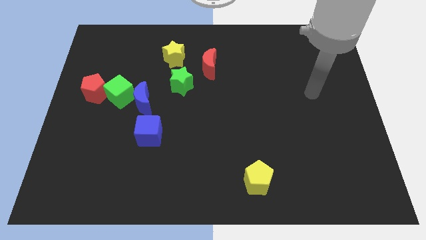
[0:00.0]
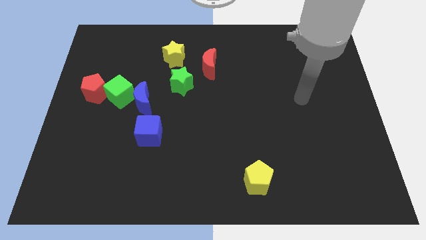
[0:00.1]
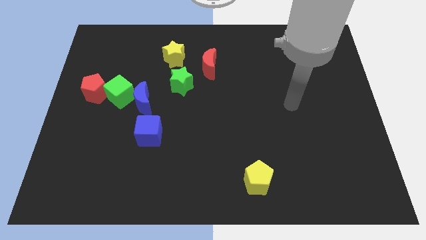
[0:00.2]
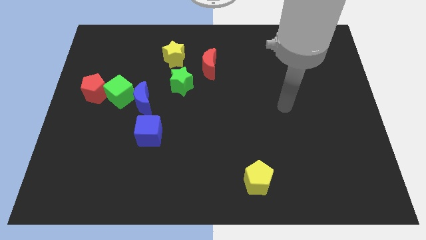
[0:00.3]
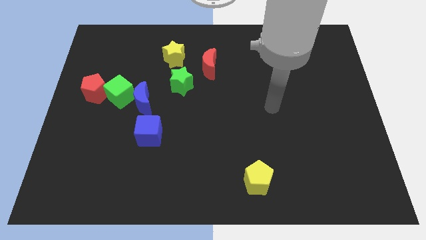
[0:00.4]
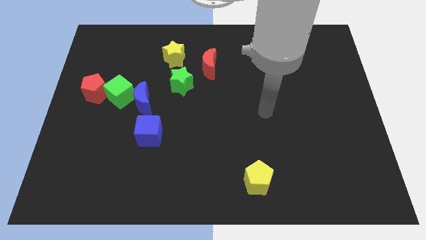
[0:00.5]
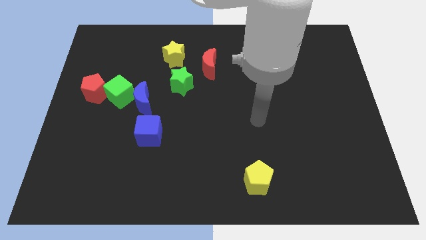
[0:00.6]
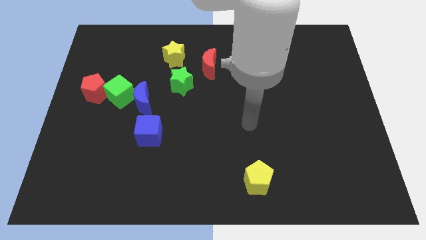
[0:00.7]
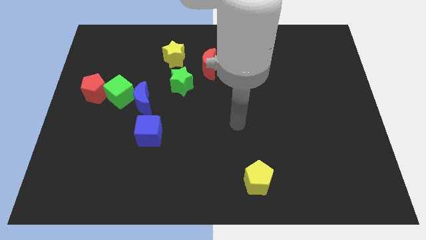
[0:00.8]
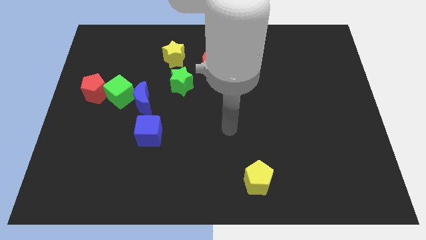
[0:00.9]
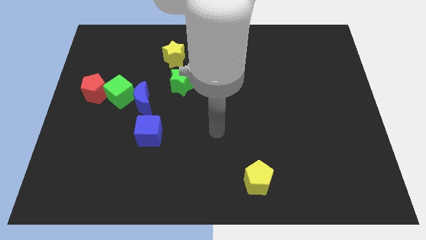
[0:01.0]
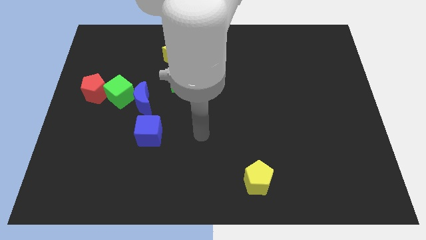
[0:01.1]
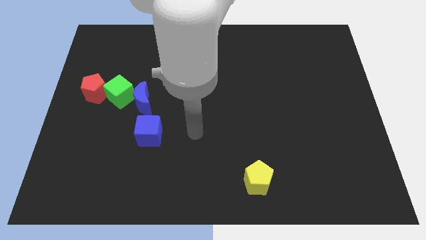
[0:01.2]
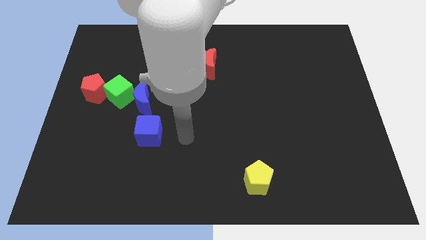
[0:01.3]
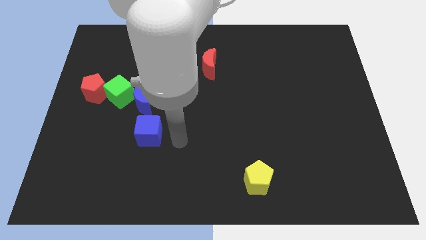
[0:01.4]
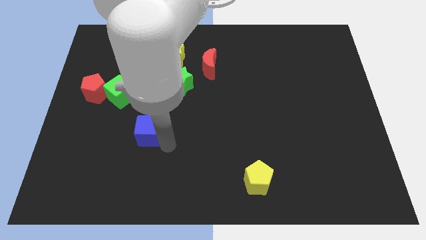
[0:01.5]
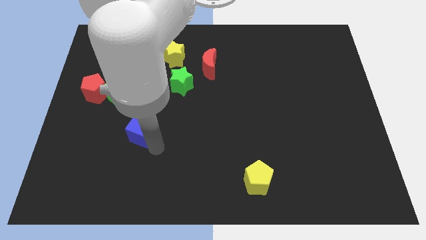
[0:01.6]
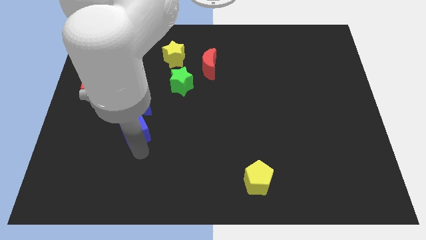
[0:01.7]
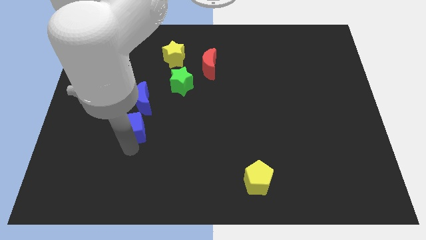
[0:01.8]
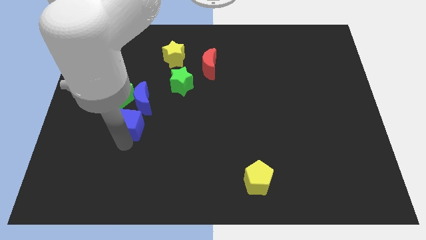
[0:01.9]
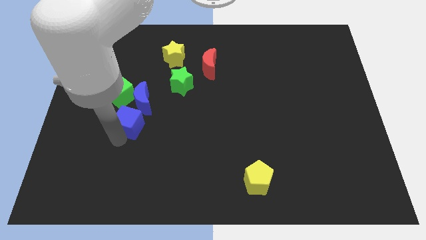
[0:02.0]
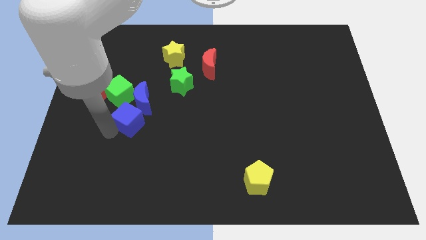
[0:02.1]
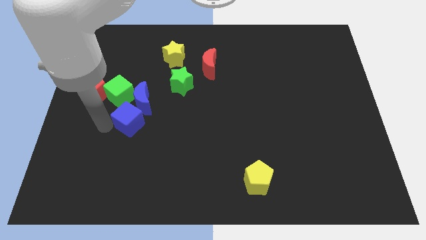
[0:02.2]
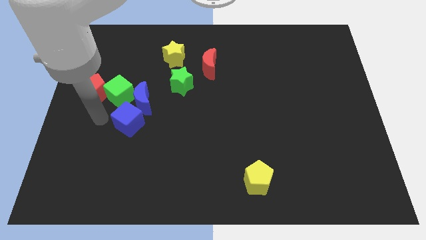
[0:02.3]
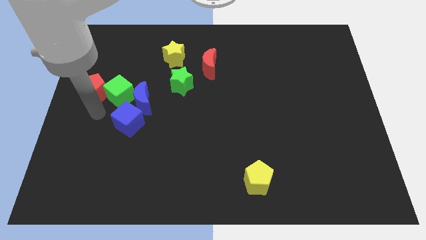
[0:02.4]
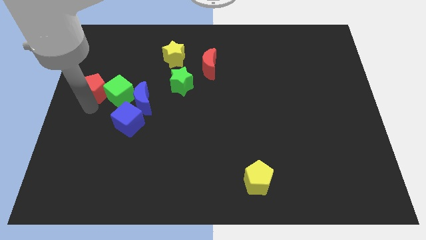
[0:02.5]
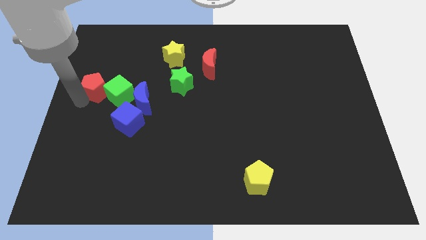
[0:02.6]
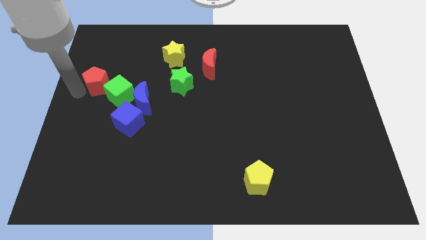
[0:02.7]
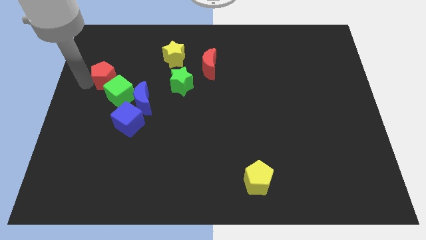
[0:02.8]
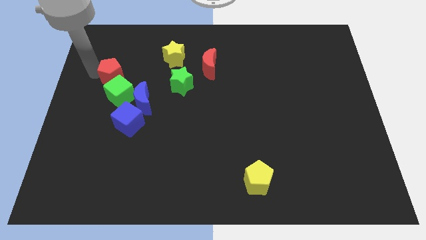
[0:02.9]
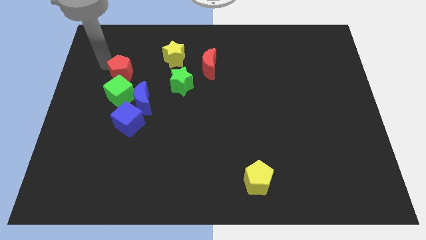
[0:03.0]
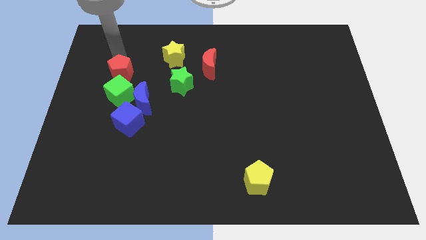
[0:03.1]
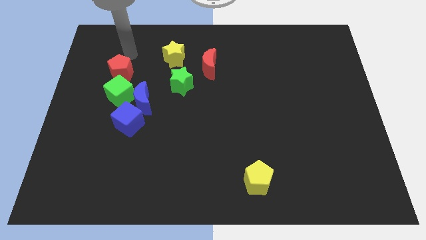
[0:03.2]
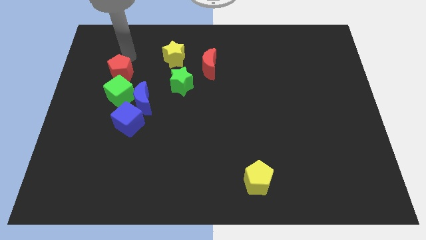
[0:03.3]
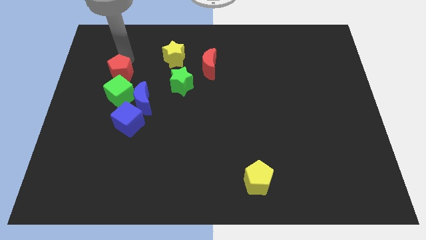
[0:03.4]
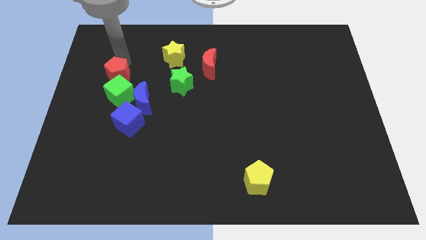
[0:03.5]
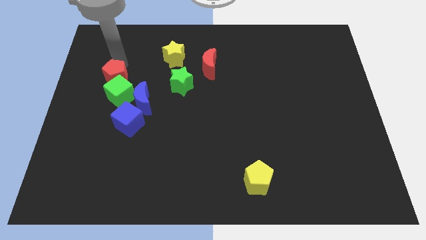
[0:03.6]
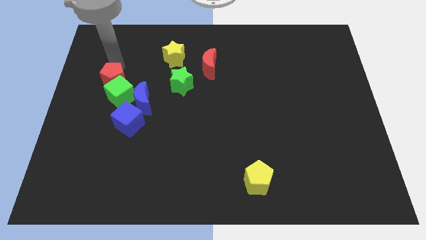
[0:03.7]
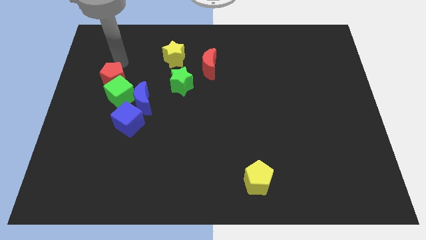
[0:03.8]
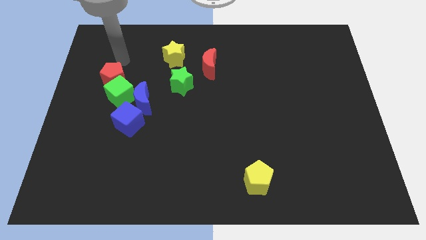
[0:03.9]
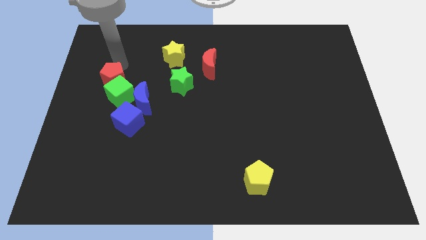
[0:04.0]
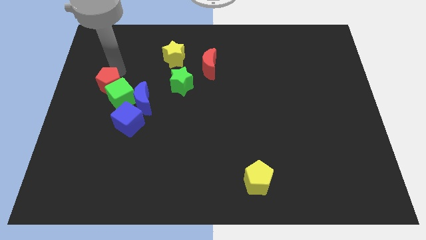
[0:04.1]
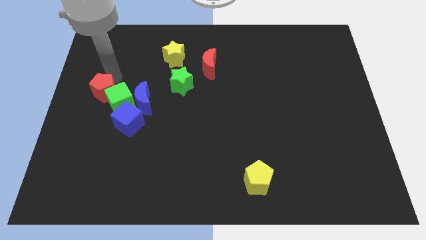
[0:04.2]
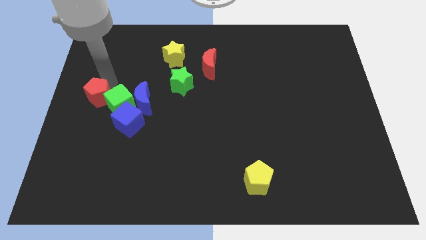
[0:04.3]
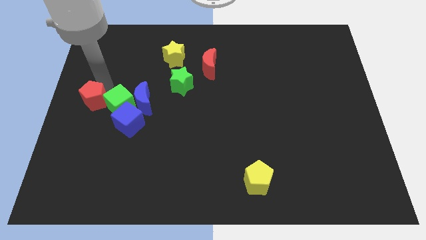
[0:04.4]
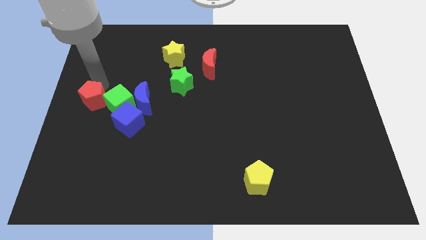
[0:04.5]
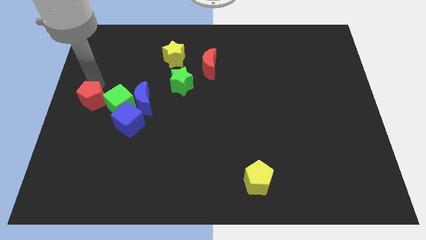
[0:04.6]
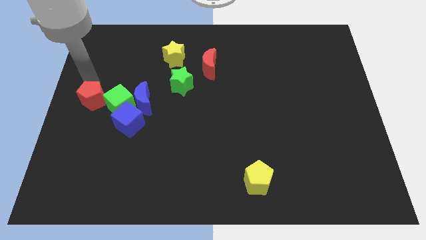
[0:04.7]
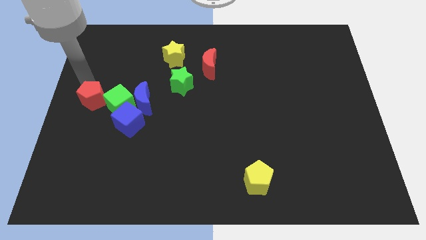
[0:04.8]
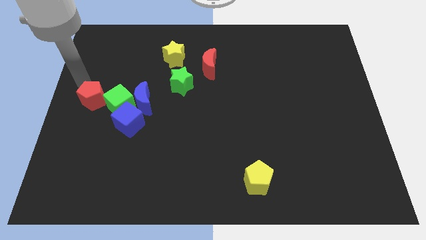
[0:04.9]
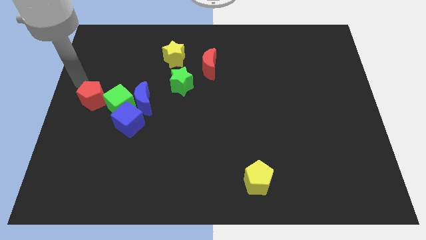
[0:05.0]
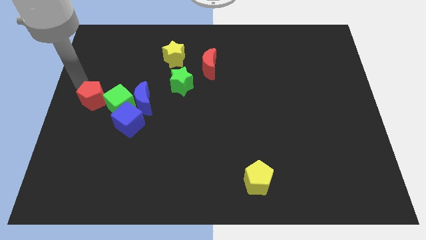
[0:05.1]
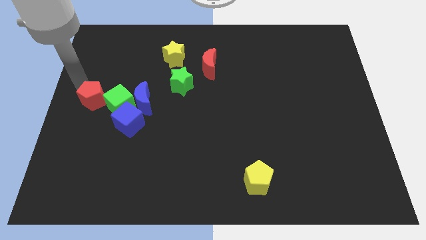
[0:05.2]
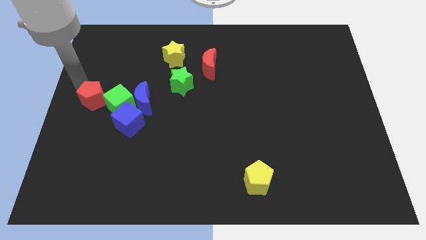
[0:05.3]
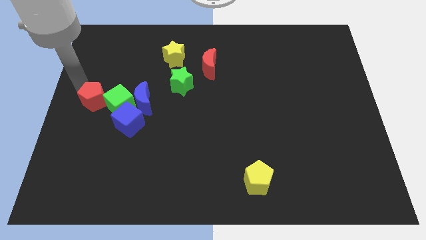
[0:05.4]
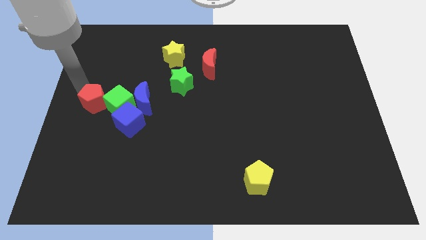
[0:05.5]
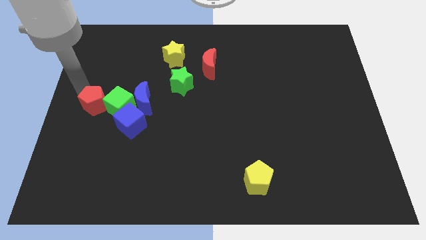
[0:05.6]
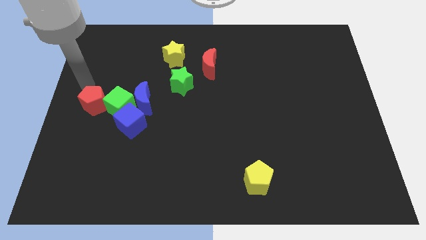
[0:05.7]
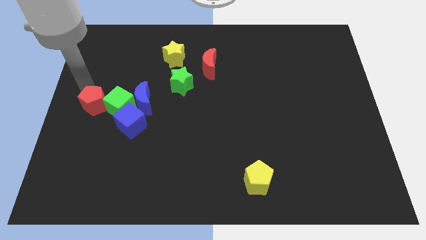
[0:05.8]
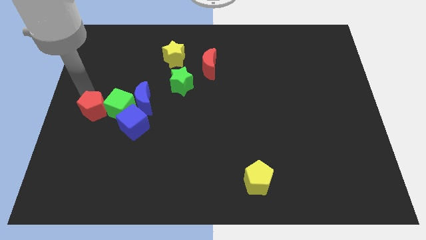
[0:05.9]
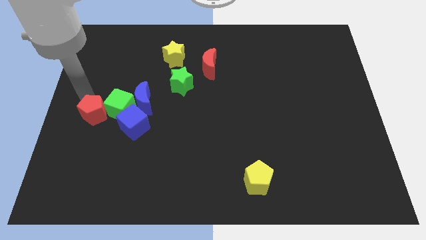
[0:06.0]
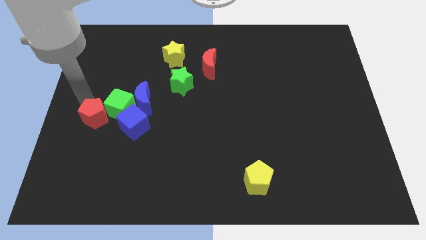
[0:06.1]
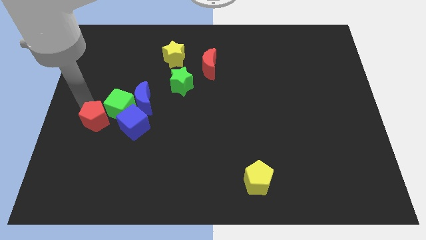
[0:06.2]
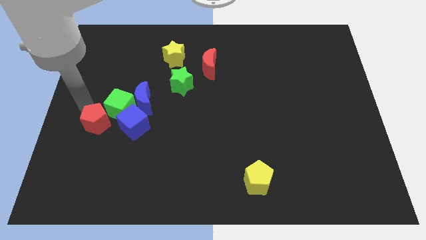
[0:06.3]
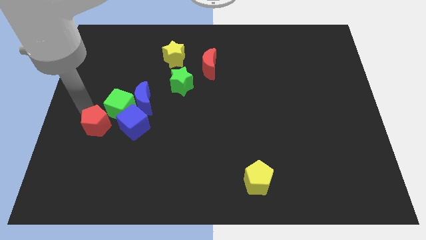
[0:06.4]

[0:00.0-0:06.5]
put the red pentagon to the bottom side of the green cube

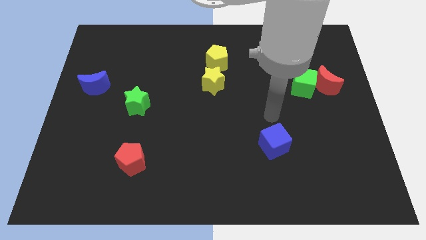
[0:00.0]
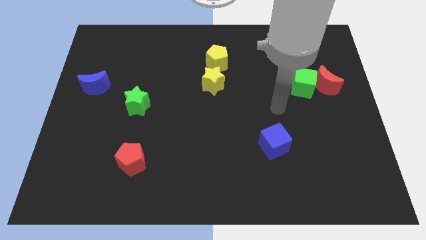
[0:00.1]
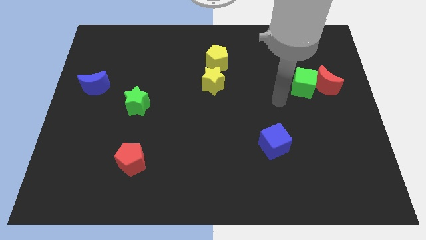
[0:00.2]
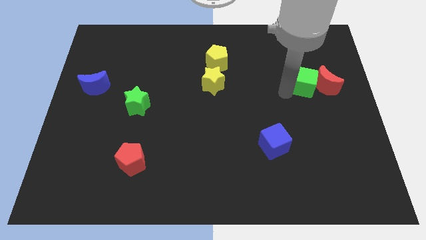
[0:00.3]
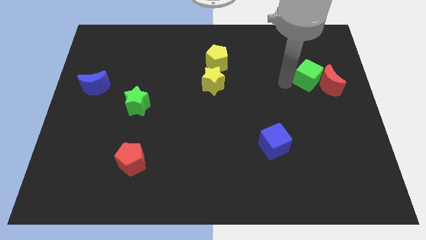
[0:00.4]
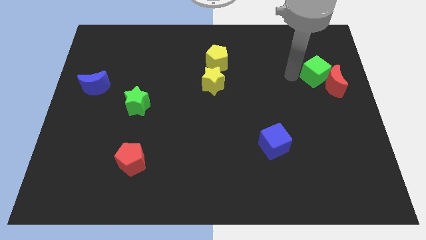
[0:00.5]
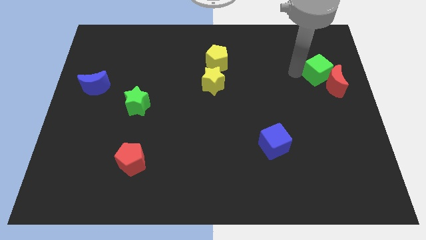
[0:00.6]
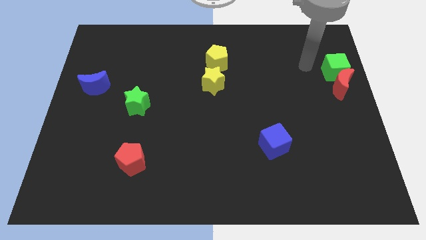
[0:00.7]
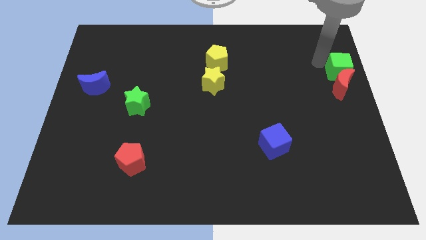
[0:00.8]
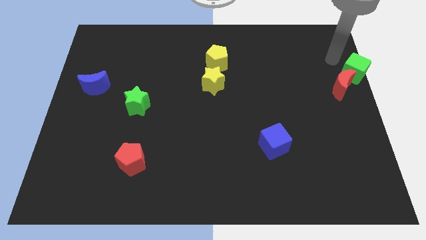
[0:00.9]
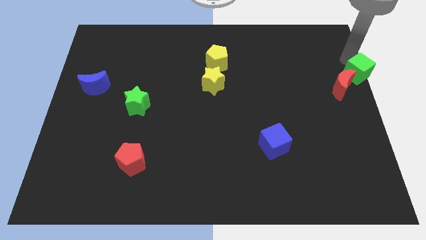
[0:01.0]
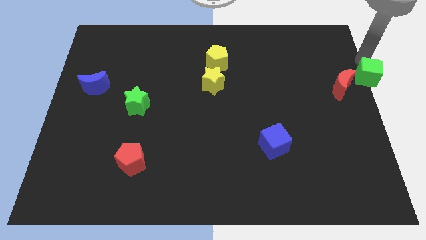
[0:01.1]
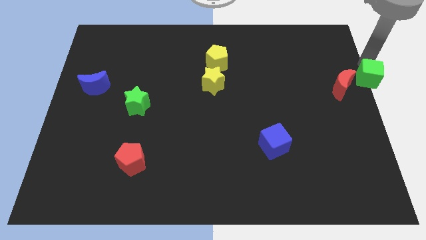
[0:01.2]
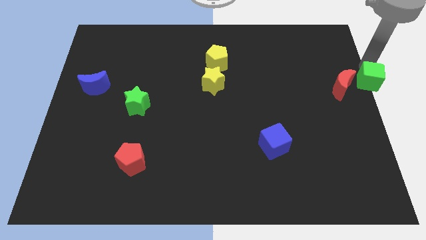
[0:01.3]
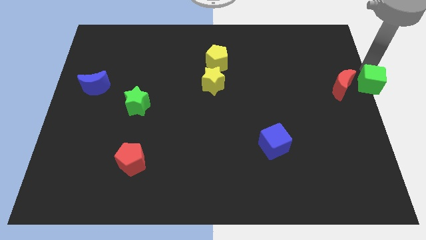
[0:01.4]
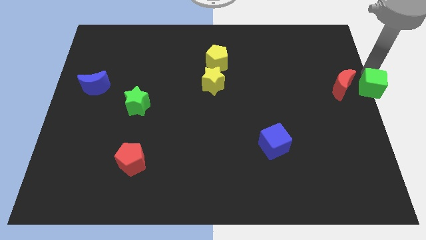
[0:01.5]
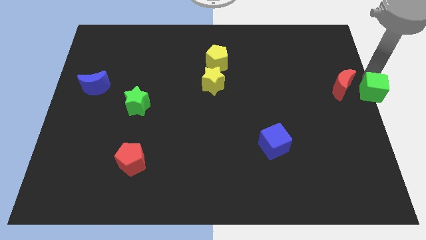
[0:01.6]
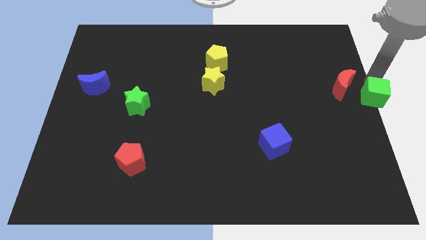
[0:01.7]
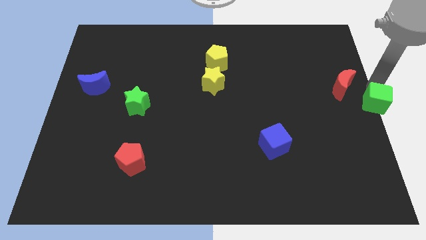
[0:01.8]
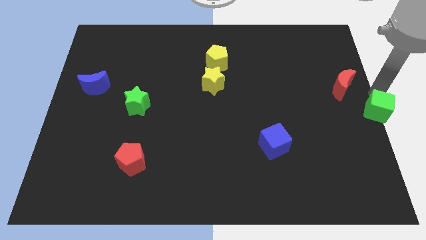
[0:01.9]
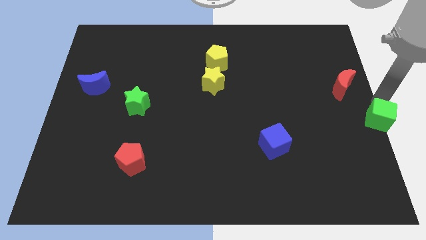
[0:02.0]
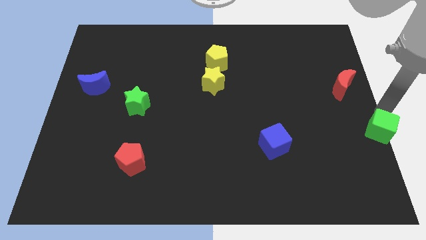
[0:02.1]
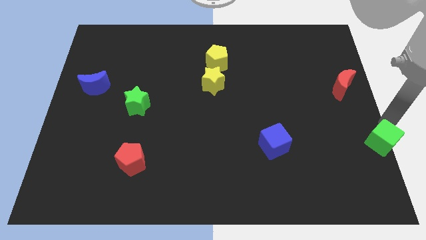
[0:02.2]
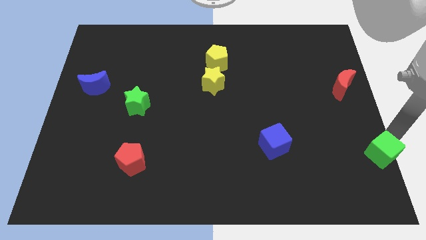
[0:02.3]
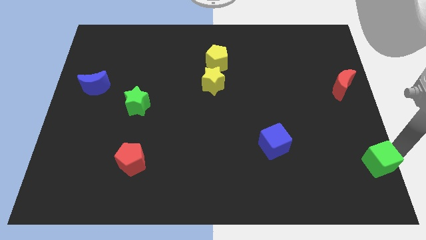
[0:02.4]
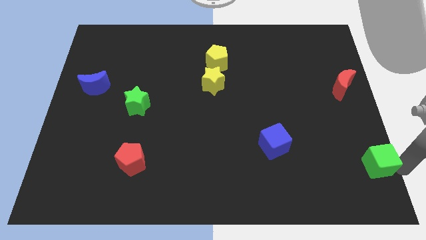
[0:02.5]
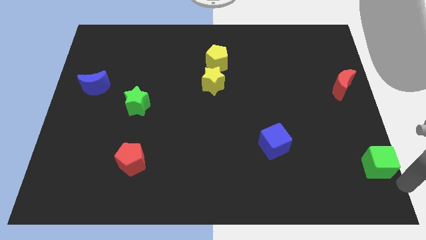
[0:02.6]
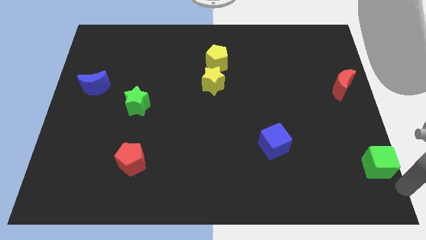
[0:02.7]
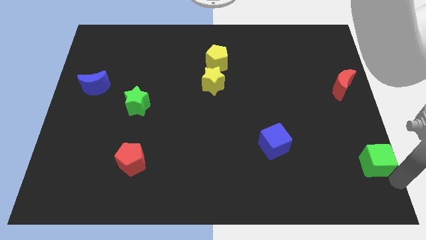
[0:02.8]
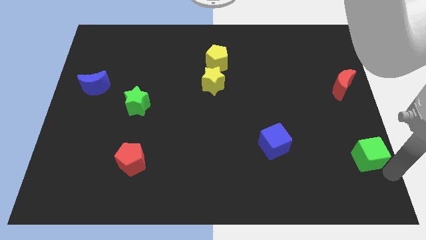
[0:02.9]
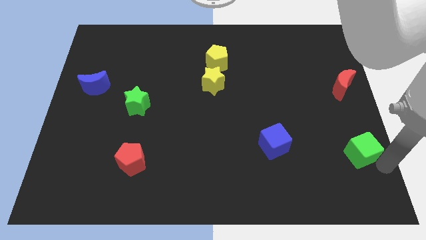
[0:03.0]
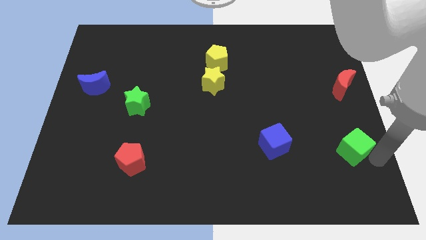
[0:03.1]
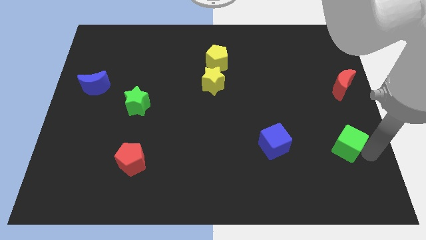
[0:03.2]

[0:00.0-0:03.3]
push the green cube to the right side of the blue cube
